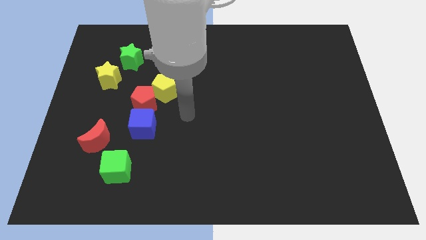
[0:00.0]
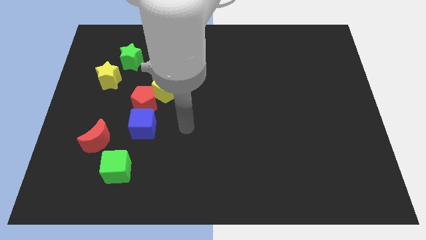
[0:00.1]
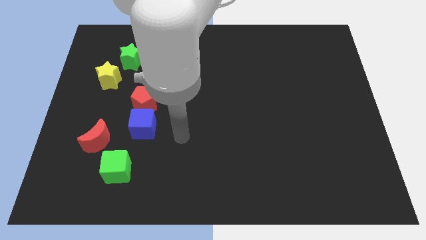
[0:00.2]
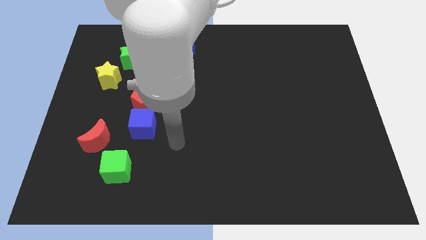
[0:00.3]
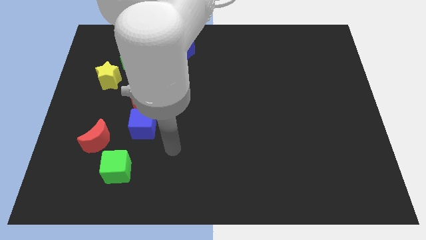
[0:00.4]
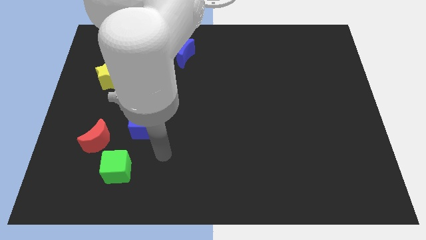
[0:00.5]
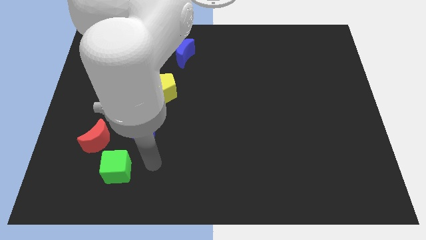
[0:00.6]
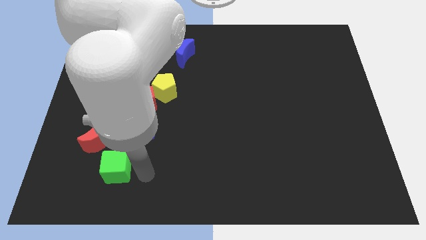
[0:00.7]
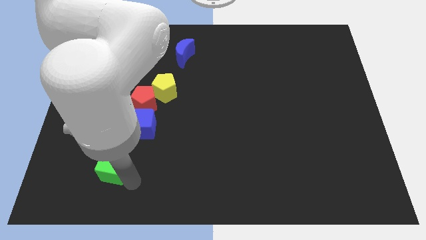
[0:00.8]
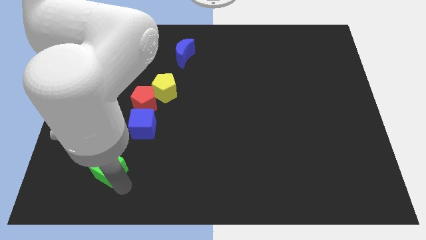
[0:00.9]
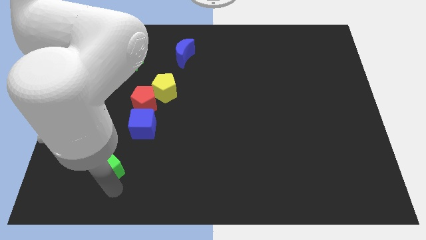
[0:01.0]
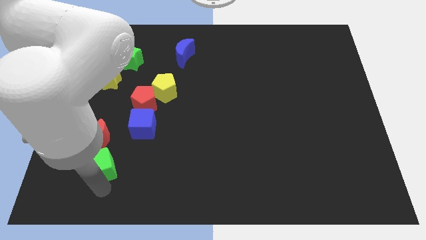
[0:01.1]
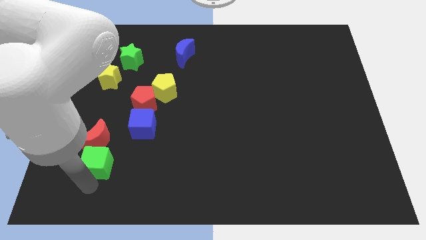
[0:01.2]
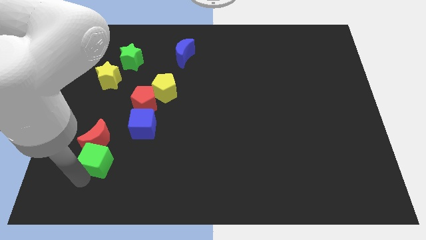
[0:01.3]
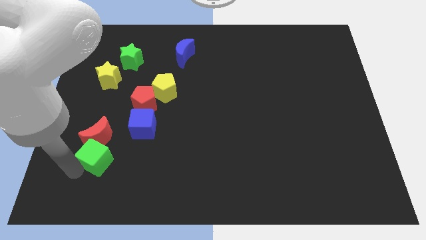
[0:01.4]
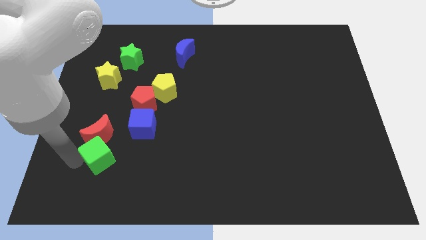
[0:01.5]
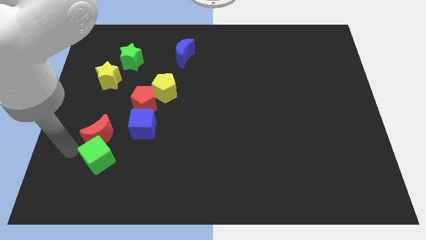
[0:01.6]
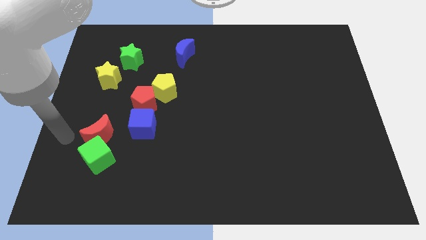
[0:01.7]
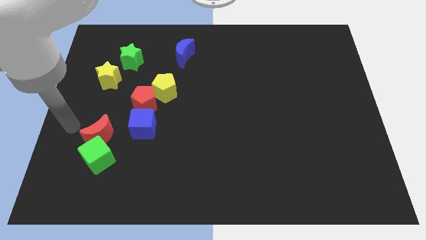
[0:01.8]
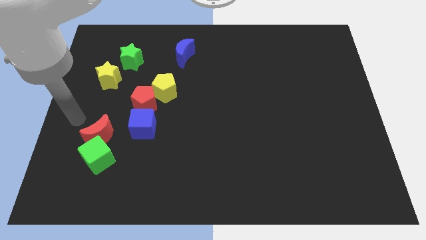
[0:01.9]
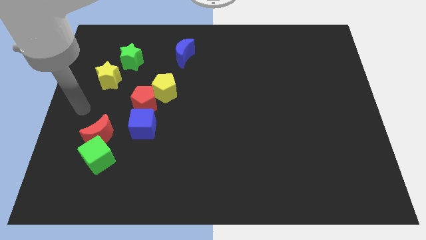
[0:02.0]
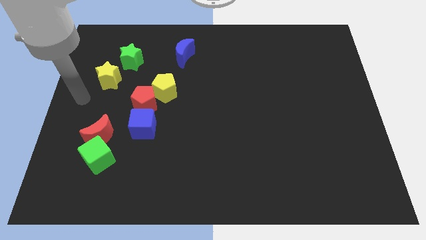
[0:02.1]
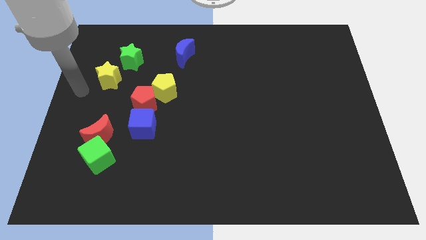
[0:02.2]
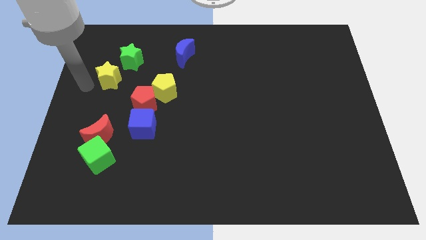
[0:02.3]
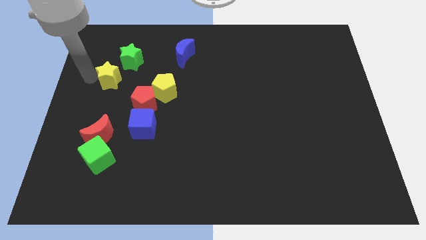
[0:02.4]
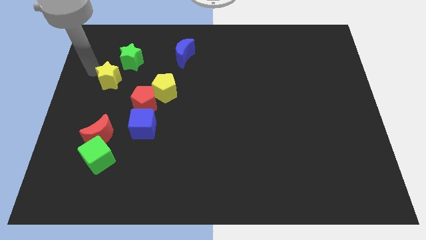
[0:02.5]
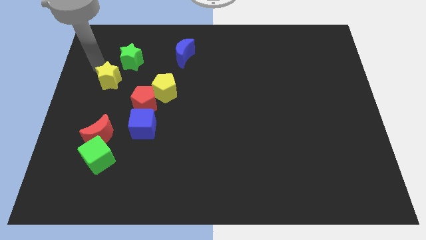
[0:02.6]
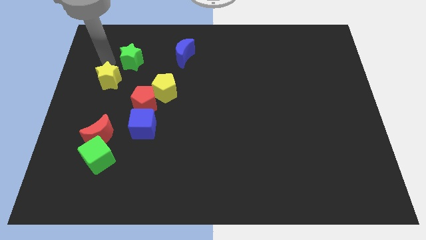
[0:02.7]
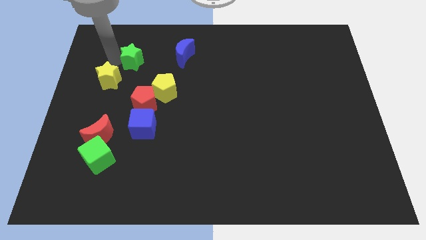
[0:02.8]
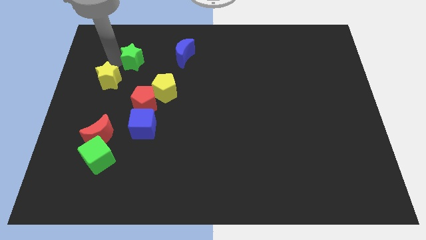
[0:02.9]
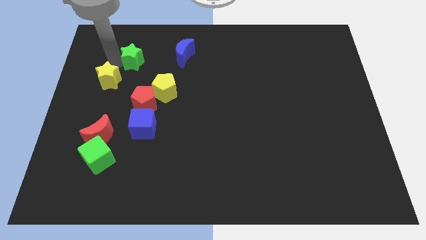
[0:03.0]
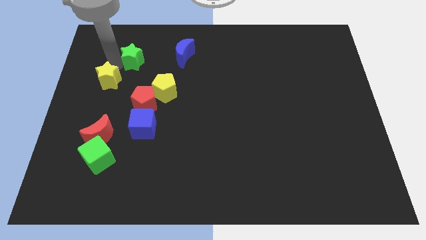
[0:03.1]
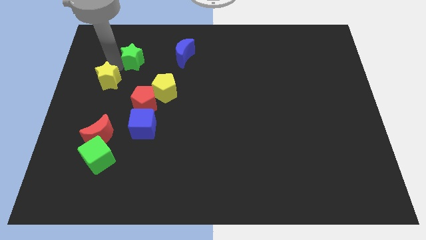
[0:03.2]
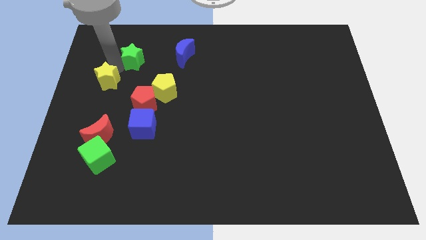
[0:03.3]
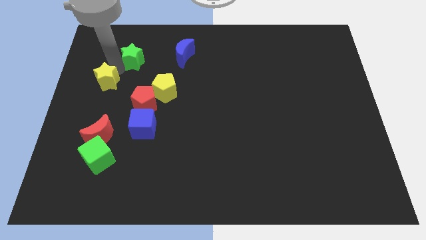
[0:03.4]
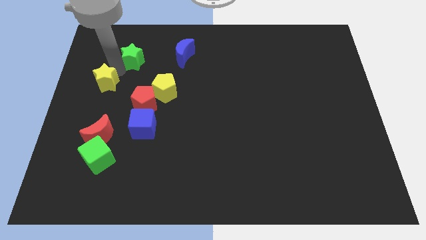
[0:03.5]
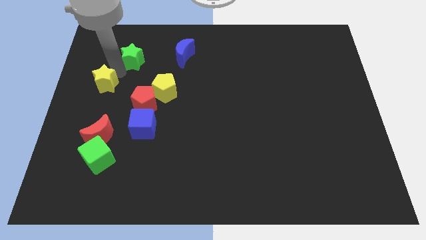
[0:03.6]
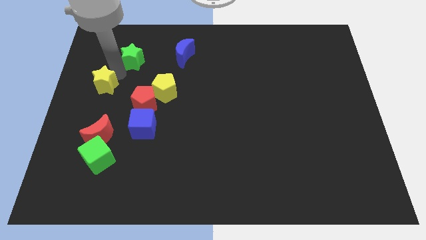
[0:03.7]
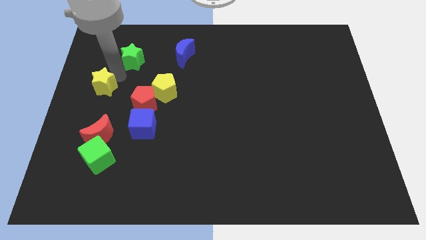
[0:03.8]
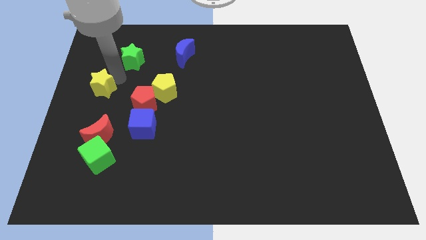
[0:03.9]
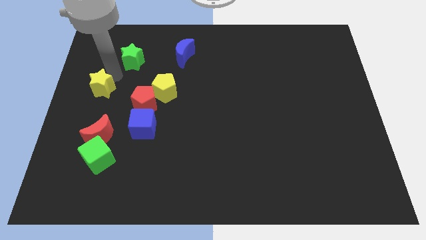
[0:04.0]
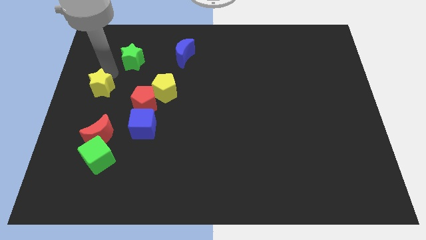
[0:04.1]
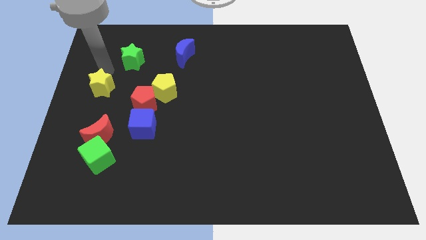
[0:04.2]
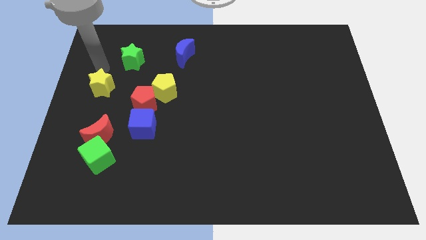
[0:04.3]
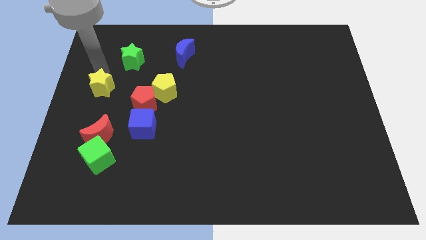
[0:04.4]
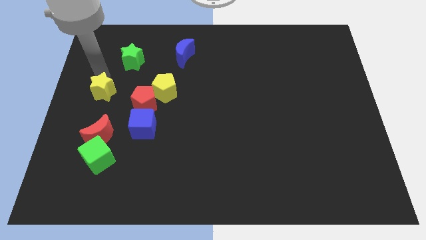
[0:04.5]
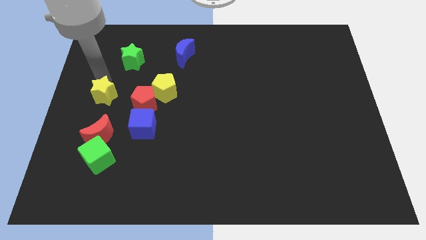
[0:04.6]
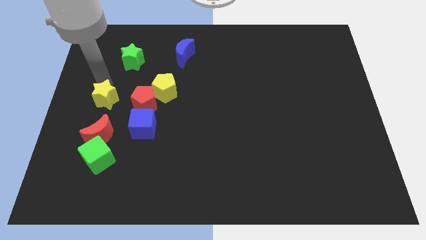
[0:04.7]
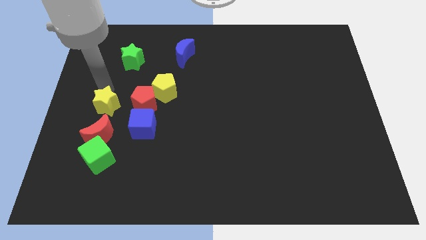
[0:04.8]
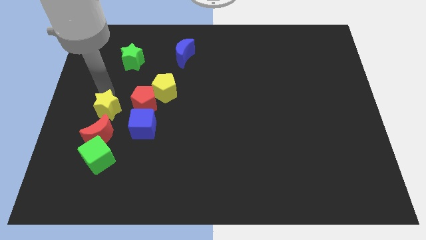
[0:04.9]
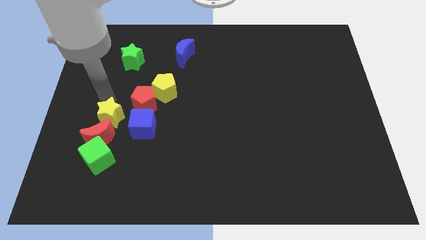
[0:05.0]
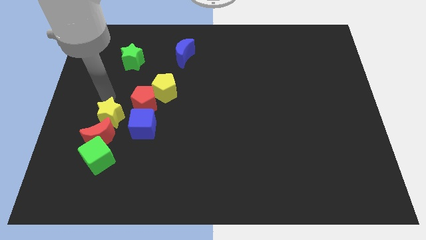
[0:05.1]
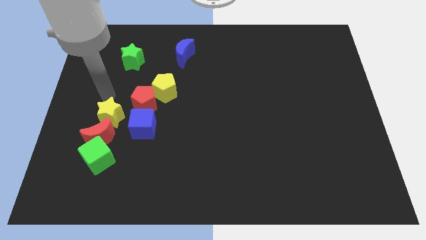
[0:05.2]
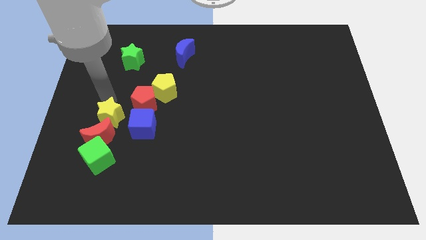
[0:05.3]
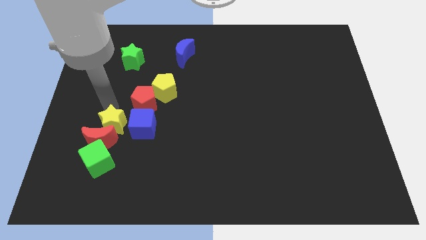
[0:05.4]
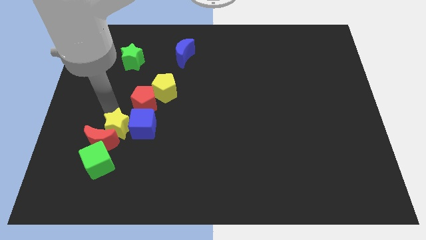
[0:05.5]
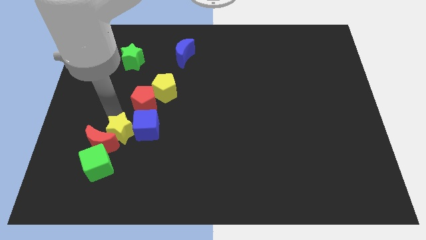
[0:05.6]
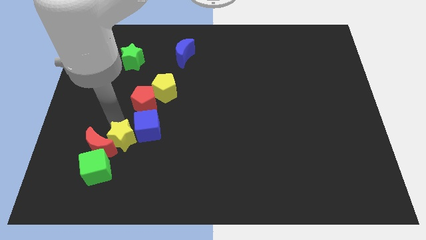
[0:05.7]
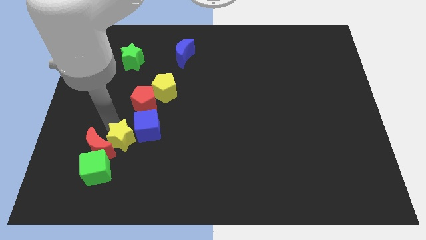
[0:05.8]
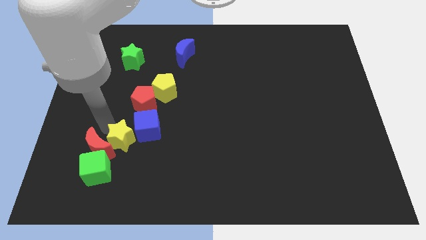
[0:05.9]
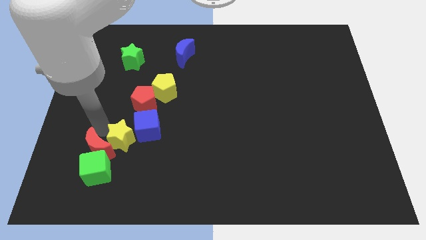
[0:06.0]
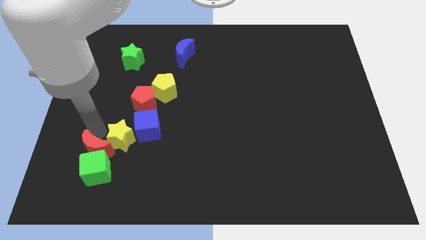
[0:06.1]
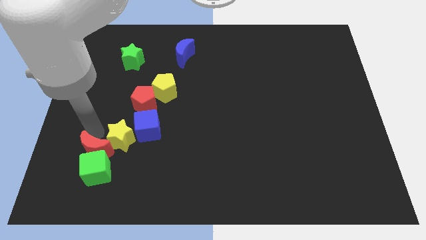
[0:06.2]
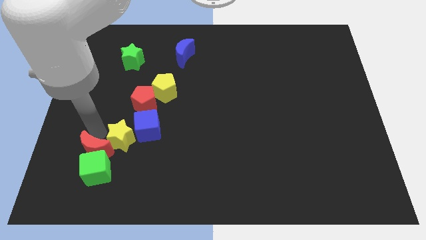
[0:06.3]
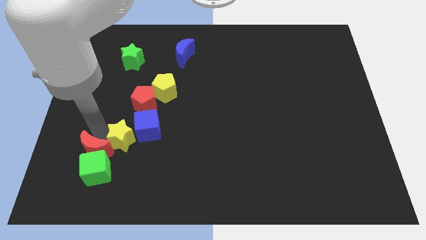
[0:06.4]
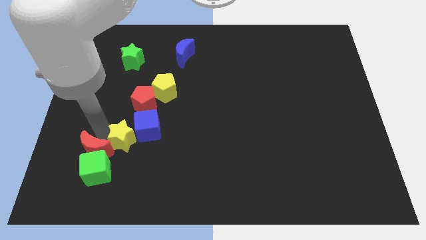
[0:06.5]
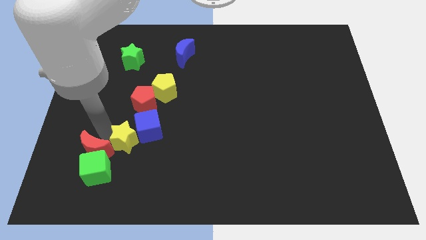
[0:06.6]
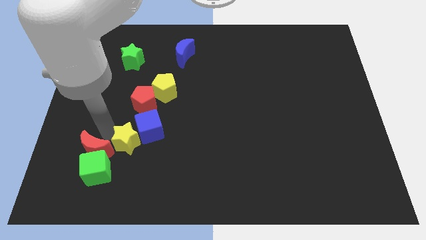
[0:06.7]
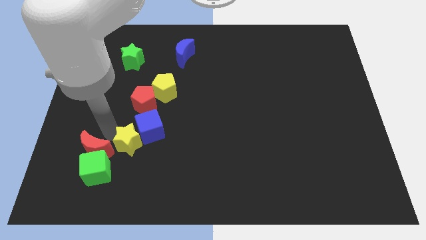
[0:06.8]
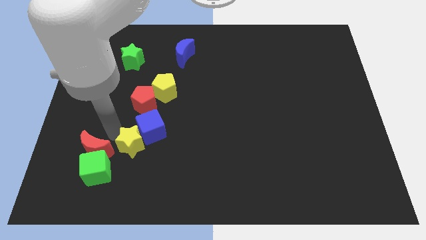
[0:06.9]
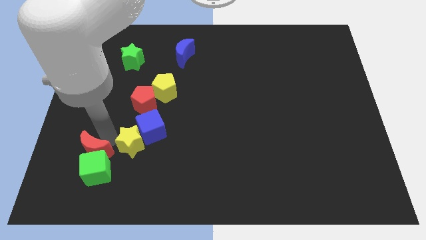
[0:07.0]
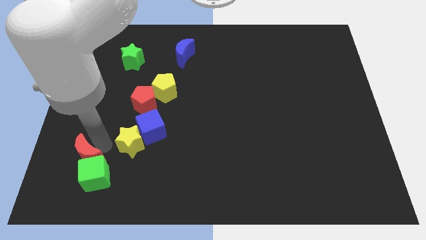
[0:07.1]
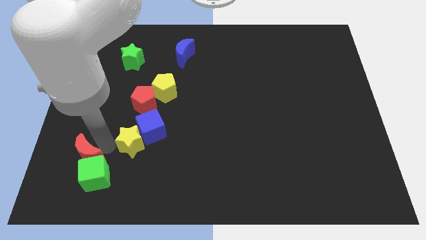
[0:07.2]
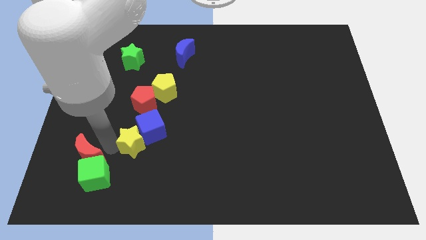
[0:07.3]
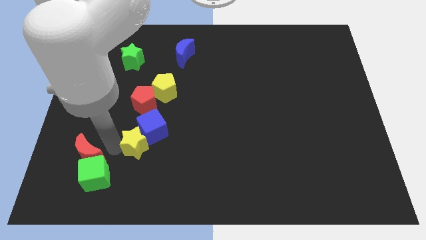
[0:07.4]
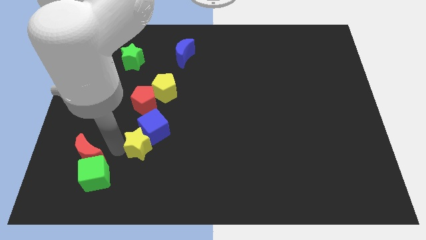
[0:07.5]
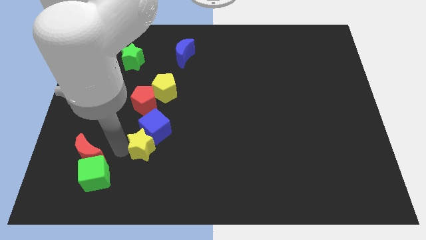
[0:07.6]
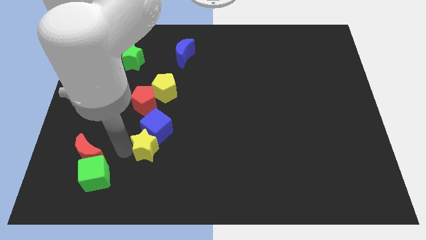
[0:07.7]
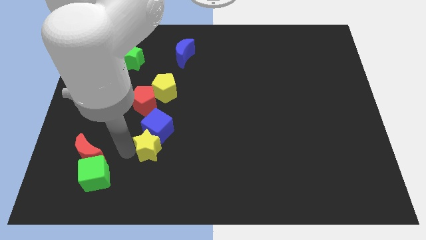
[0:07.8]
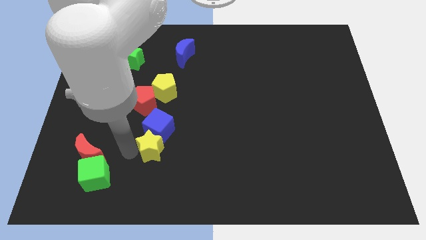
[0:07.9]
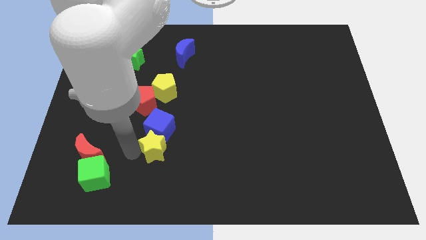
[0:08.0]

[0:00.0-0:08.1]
put the yellow star to the bottom of the yellow pentagon
